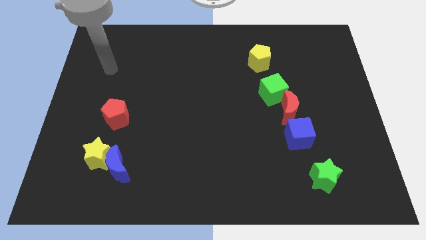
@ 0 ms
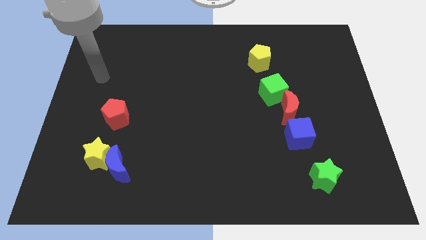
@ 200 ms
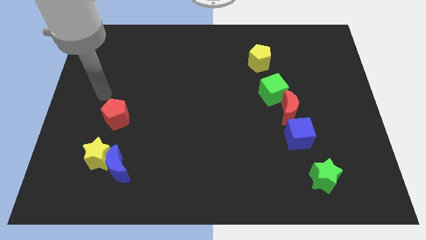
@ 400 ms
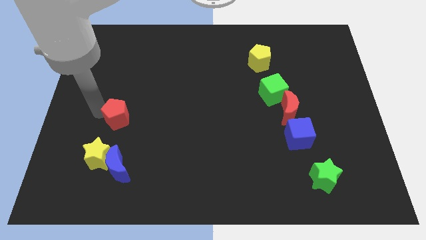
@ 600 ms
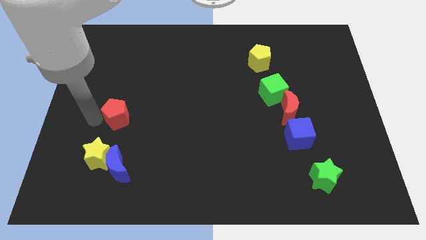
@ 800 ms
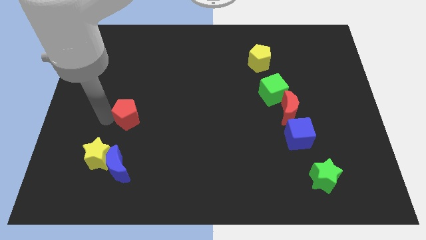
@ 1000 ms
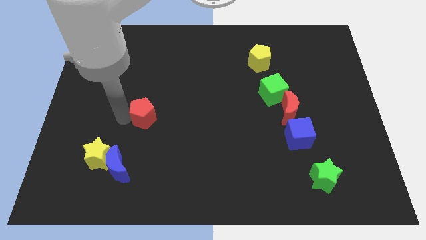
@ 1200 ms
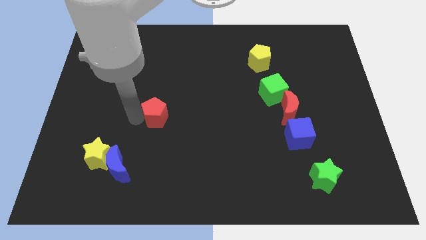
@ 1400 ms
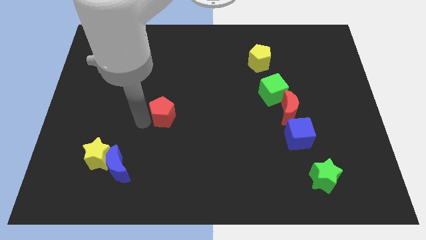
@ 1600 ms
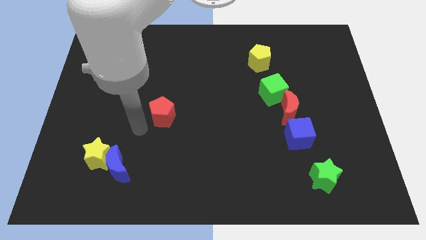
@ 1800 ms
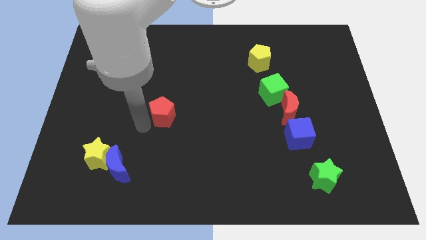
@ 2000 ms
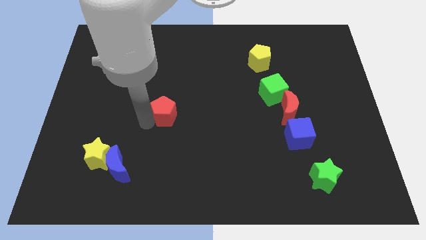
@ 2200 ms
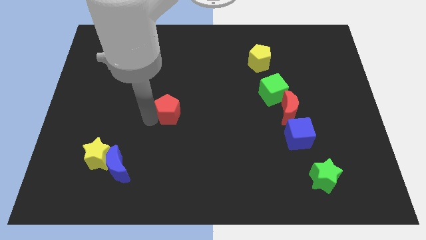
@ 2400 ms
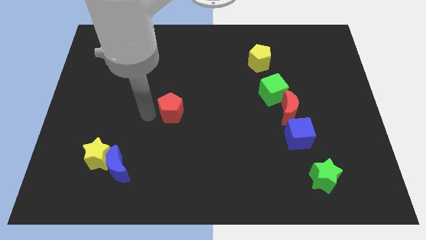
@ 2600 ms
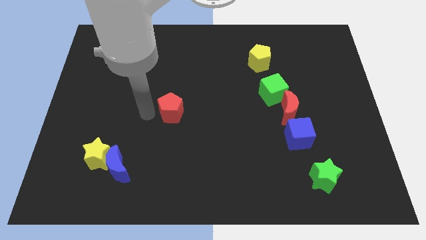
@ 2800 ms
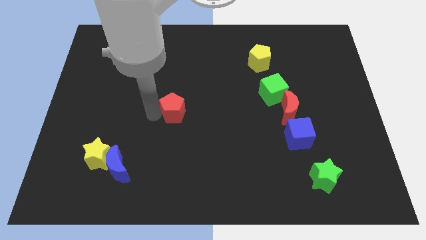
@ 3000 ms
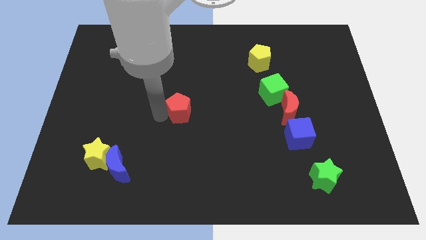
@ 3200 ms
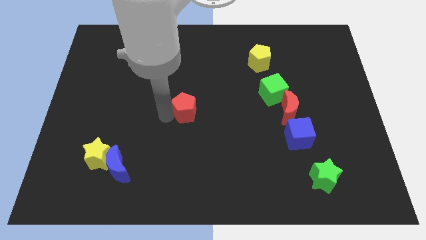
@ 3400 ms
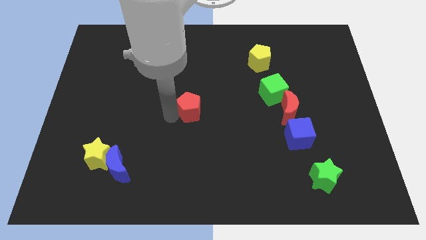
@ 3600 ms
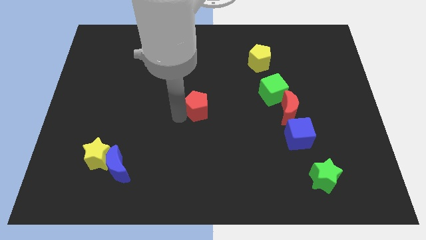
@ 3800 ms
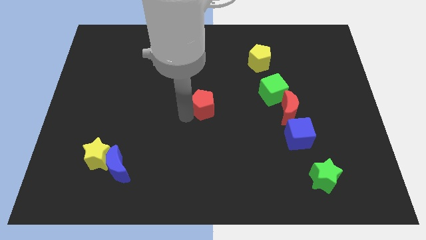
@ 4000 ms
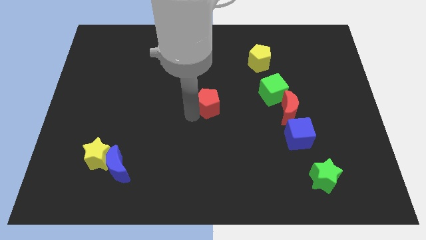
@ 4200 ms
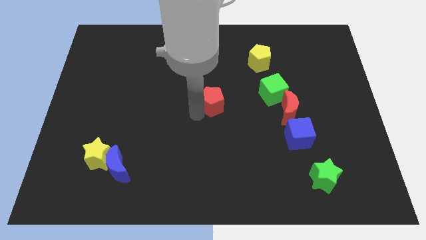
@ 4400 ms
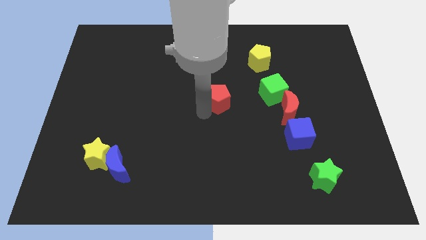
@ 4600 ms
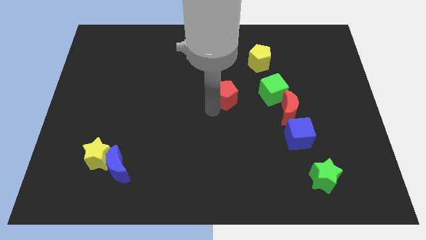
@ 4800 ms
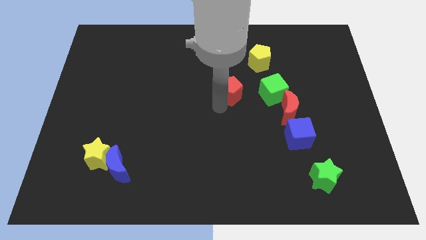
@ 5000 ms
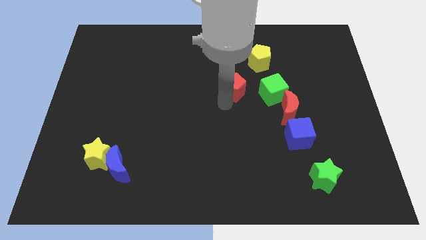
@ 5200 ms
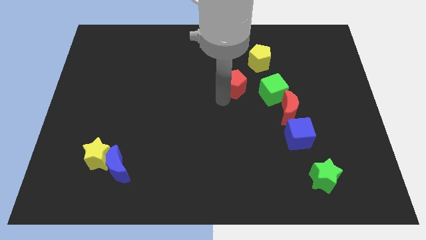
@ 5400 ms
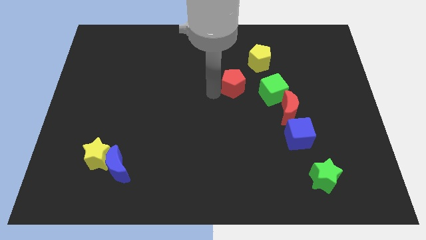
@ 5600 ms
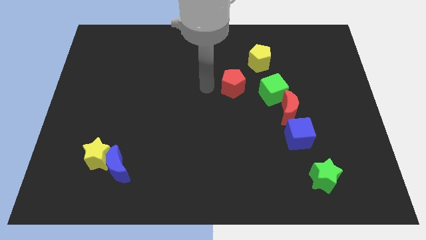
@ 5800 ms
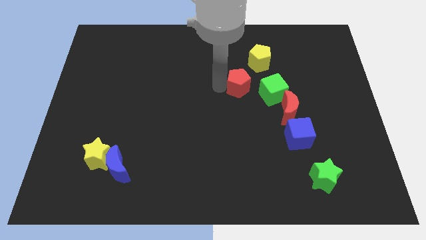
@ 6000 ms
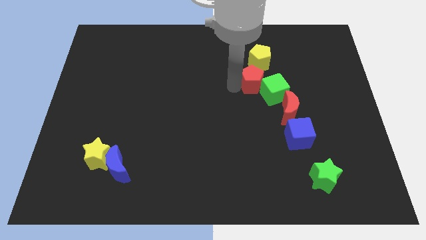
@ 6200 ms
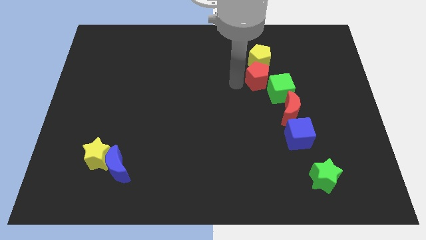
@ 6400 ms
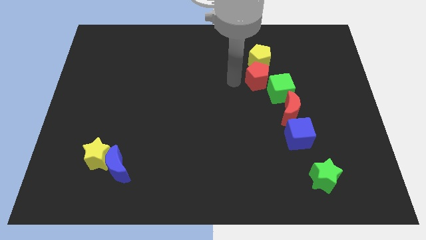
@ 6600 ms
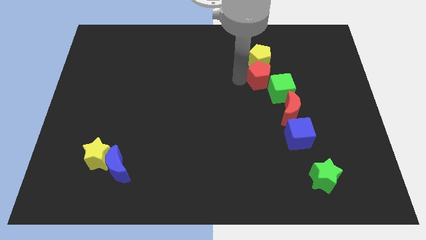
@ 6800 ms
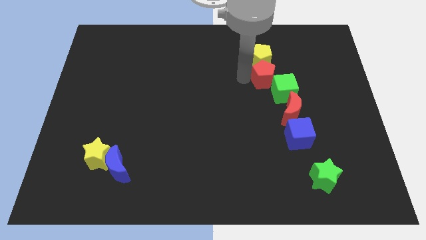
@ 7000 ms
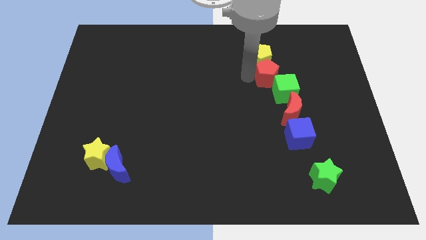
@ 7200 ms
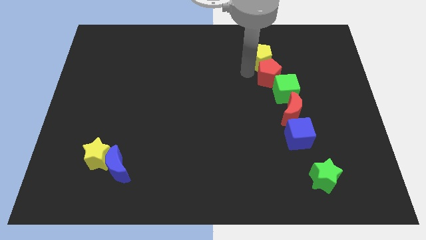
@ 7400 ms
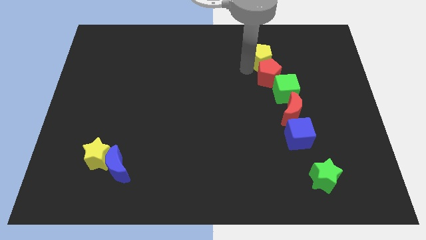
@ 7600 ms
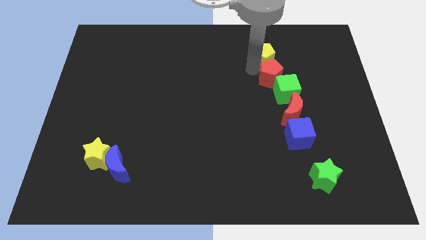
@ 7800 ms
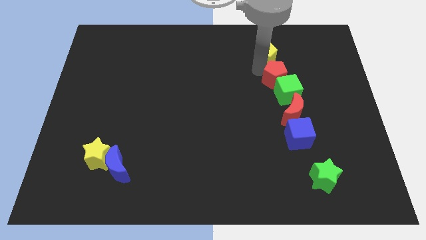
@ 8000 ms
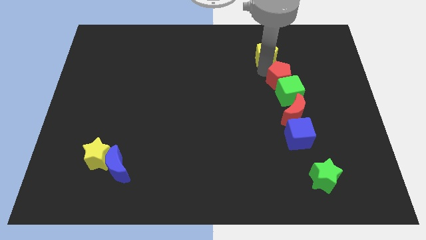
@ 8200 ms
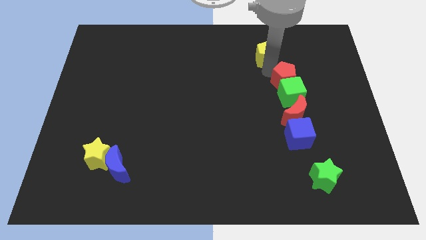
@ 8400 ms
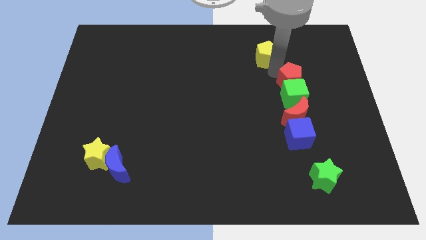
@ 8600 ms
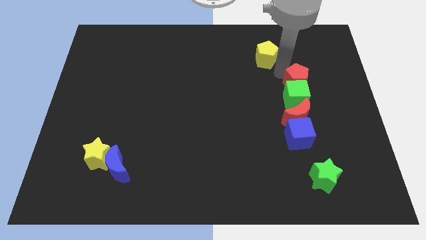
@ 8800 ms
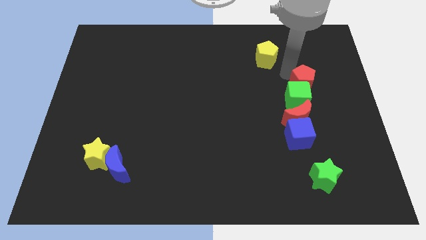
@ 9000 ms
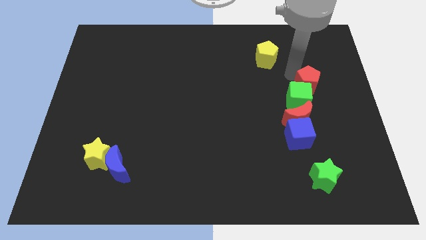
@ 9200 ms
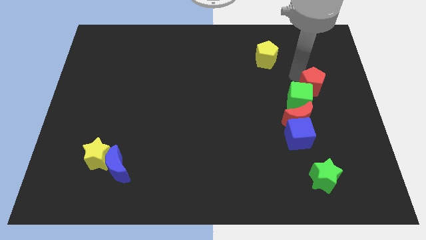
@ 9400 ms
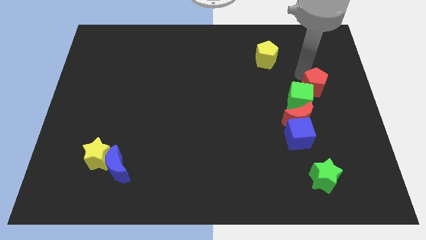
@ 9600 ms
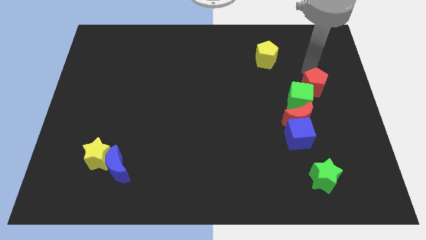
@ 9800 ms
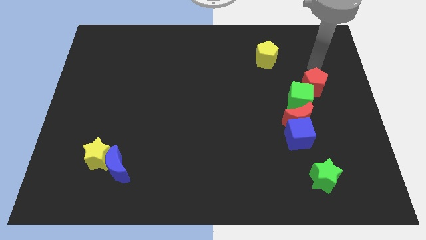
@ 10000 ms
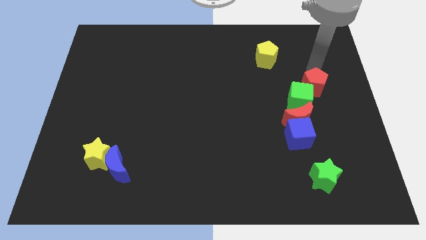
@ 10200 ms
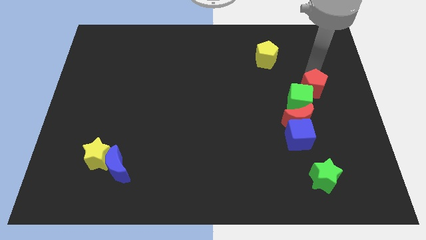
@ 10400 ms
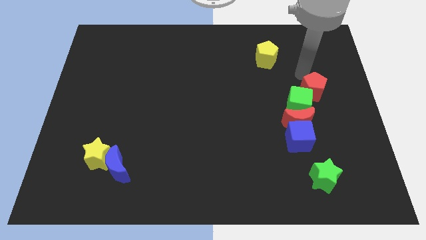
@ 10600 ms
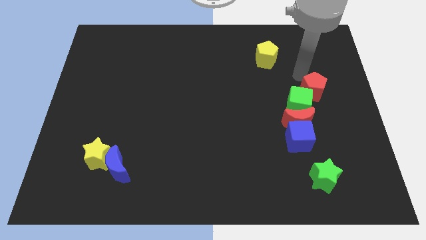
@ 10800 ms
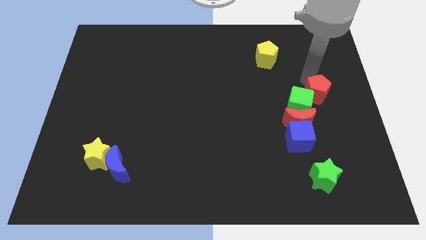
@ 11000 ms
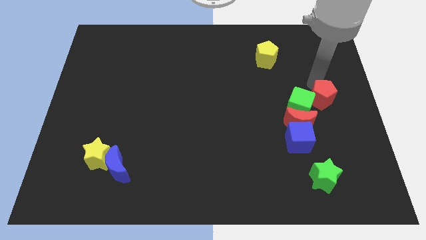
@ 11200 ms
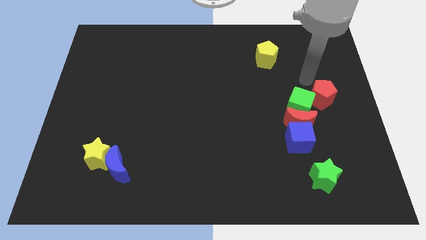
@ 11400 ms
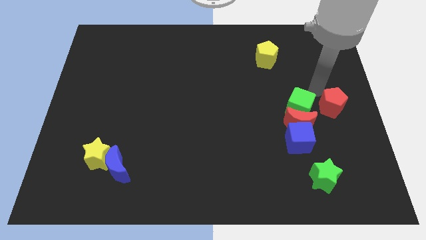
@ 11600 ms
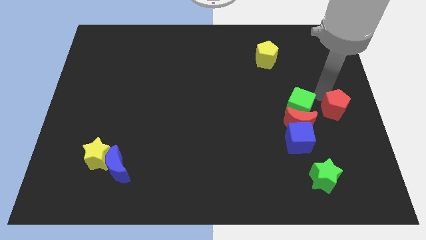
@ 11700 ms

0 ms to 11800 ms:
move the red pentagon right of the red moon

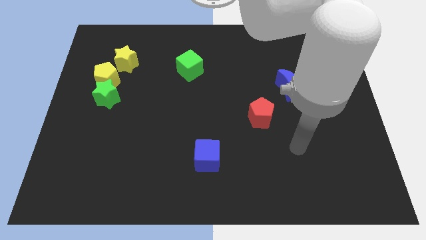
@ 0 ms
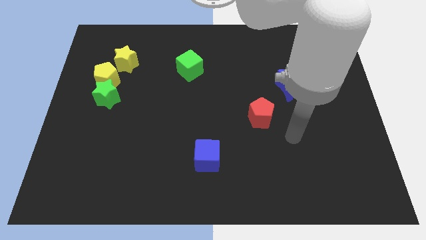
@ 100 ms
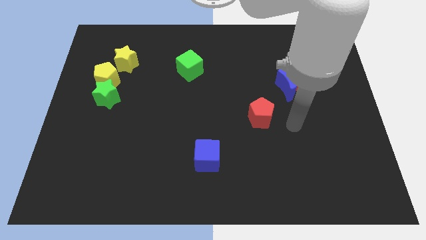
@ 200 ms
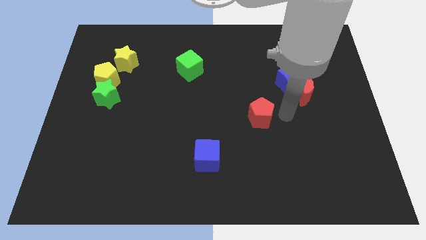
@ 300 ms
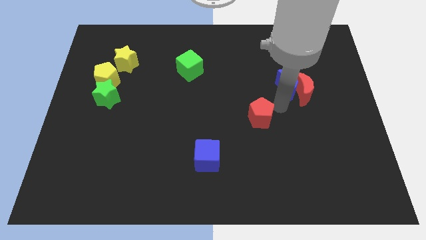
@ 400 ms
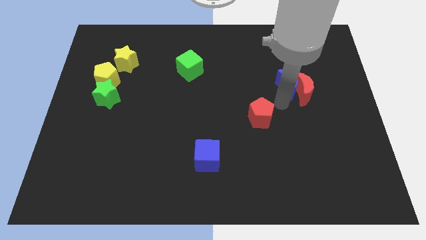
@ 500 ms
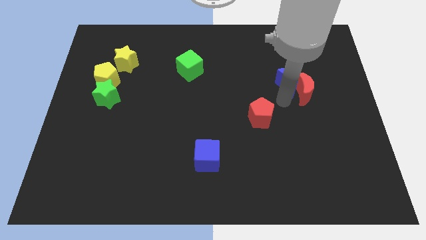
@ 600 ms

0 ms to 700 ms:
slide the blue moon above the red moon

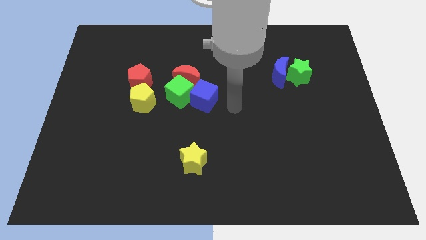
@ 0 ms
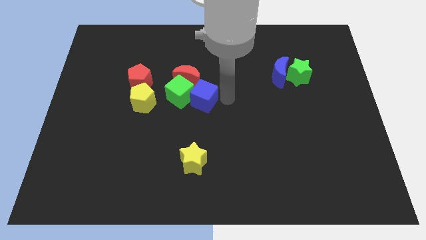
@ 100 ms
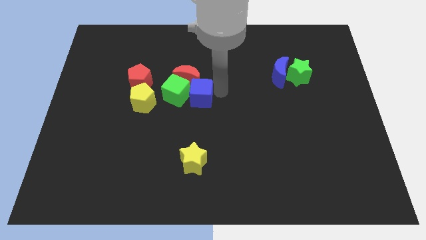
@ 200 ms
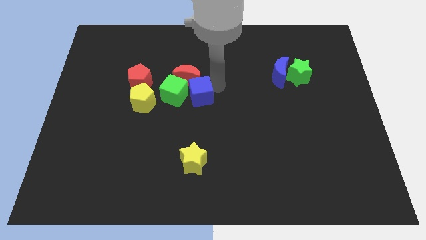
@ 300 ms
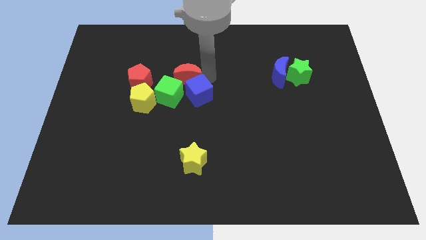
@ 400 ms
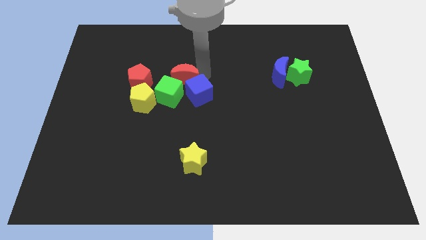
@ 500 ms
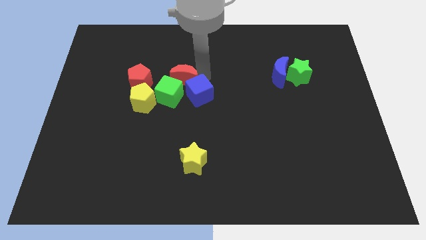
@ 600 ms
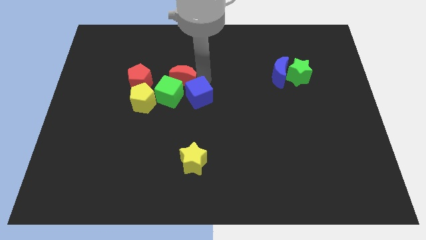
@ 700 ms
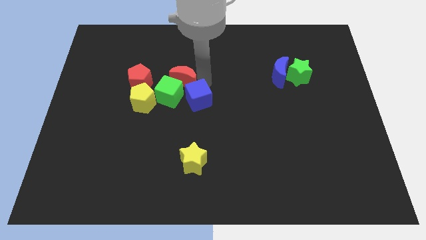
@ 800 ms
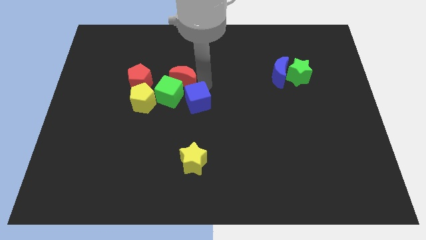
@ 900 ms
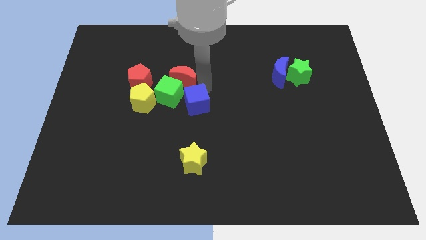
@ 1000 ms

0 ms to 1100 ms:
push the blue cube above the yellow star
